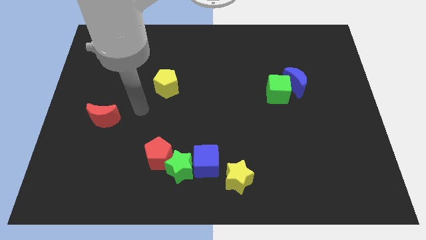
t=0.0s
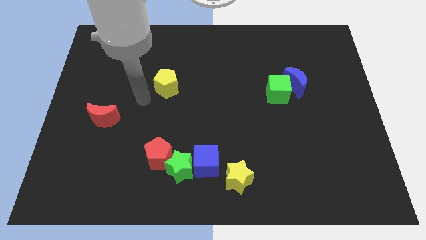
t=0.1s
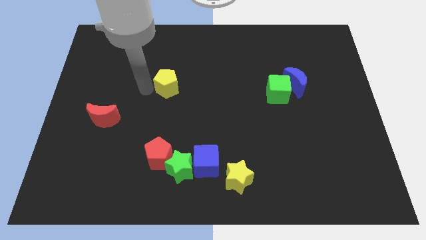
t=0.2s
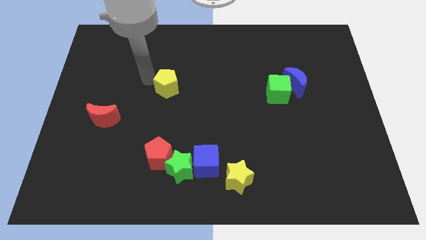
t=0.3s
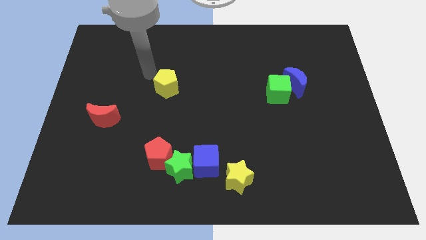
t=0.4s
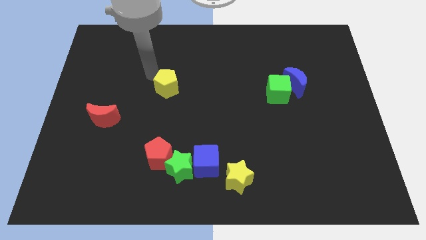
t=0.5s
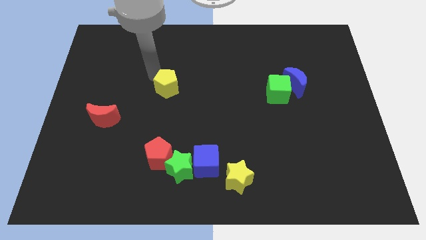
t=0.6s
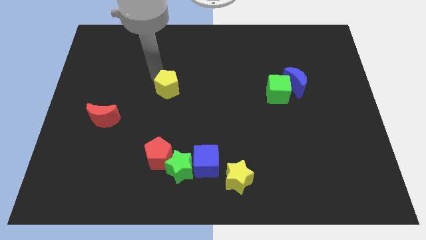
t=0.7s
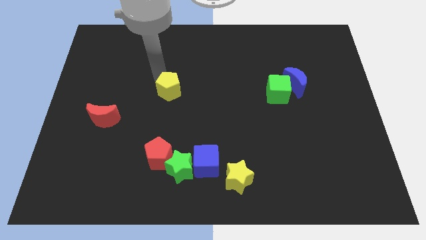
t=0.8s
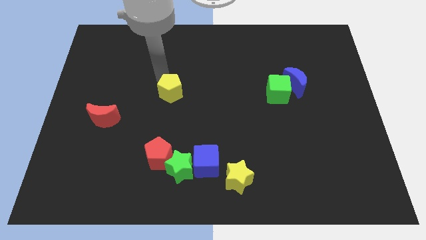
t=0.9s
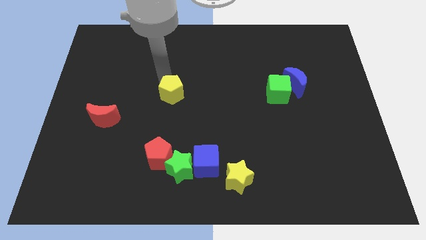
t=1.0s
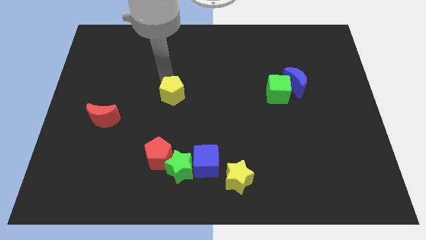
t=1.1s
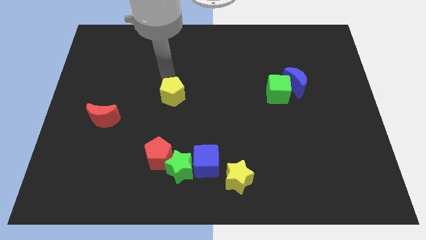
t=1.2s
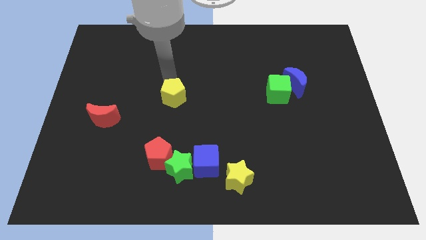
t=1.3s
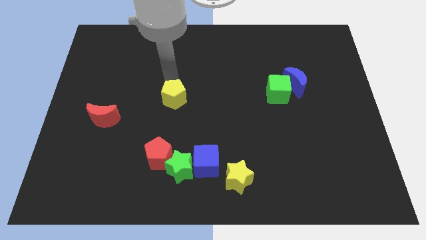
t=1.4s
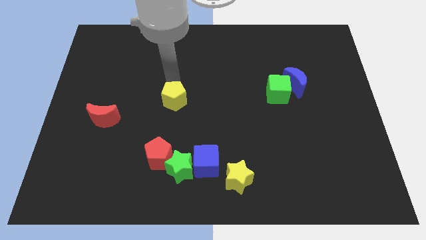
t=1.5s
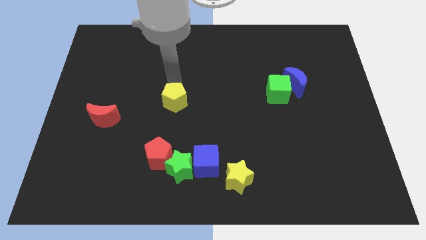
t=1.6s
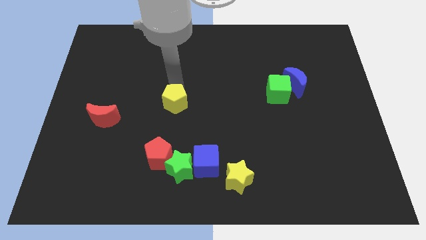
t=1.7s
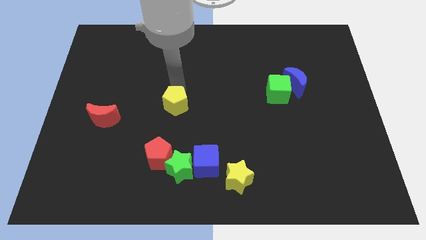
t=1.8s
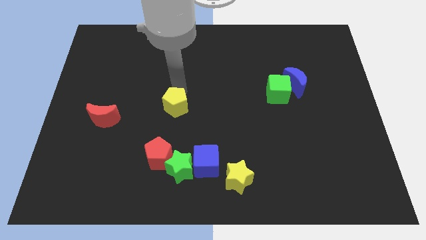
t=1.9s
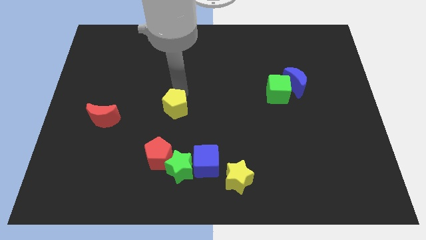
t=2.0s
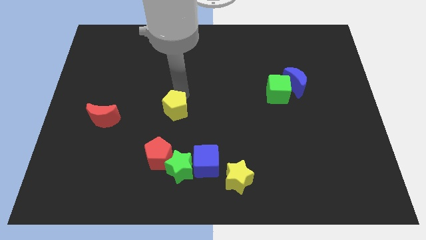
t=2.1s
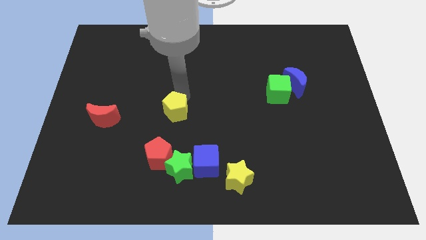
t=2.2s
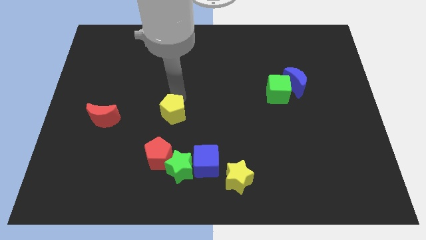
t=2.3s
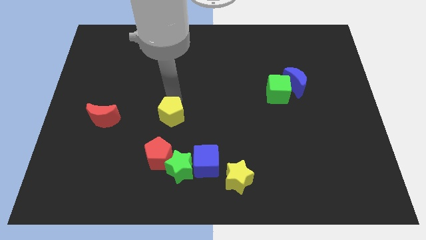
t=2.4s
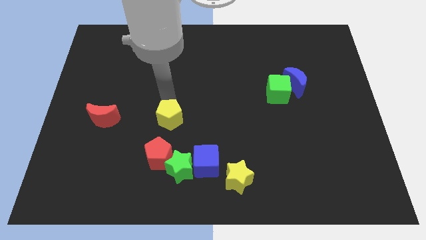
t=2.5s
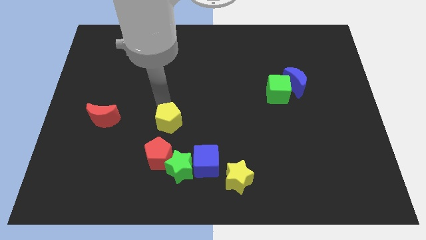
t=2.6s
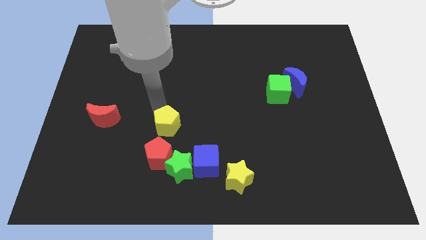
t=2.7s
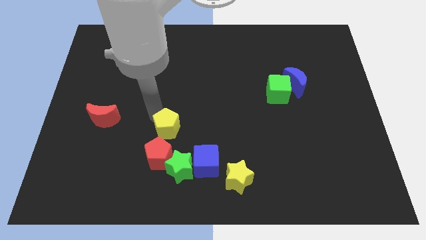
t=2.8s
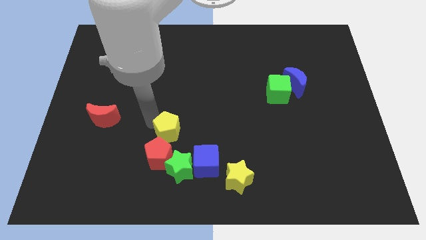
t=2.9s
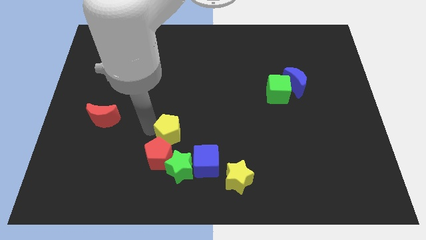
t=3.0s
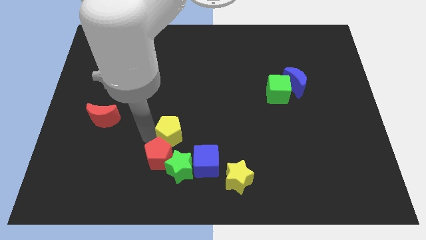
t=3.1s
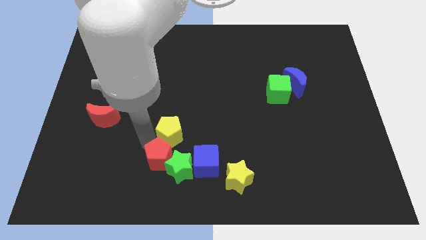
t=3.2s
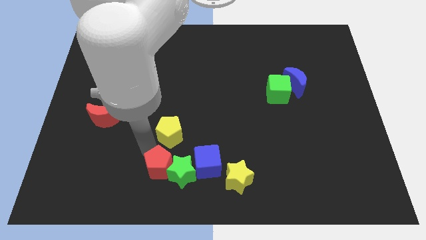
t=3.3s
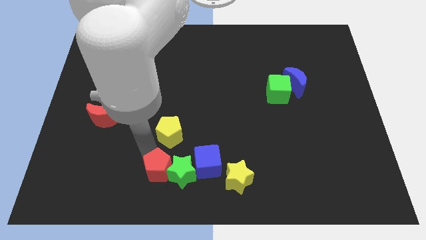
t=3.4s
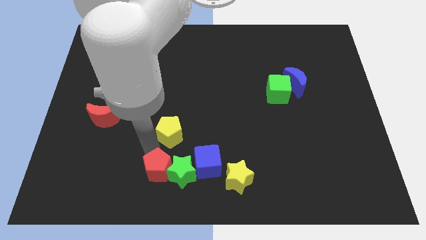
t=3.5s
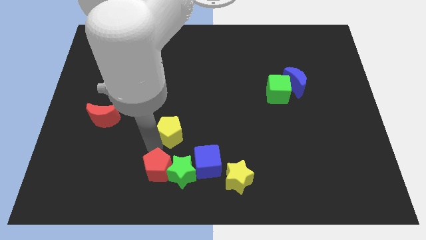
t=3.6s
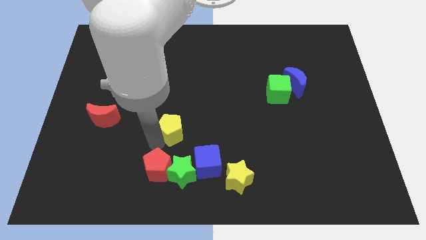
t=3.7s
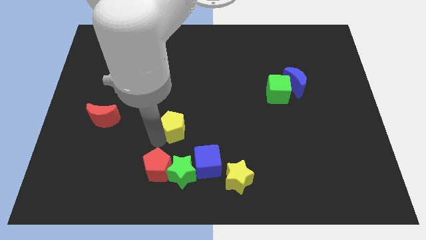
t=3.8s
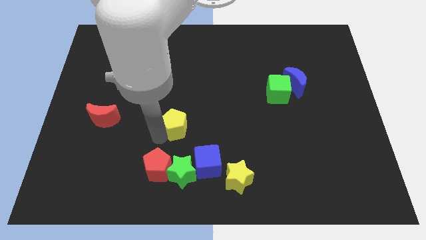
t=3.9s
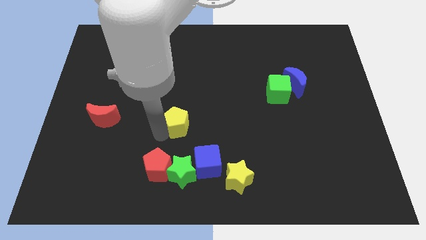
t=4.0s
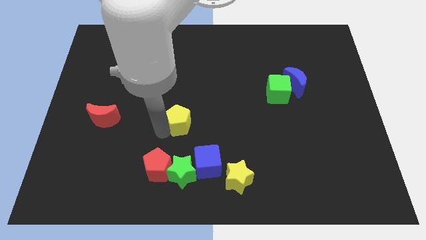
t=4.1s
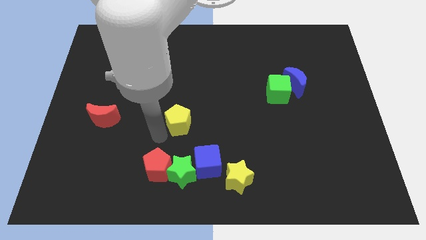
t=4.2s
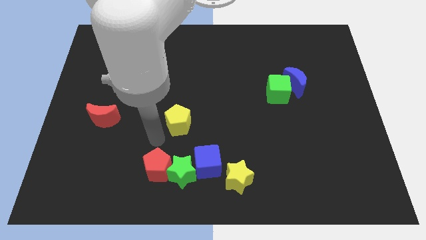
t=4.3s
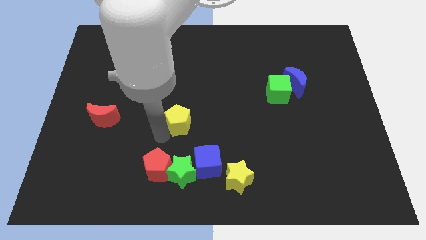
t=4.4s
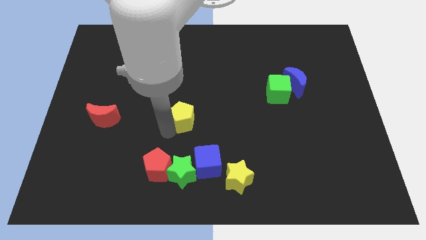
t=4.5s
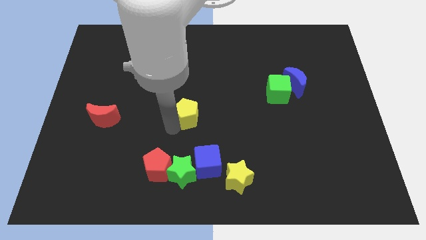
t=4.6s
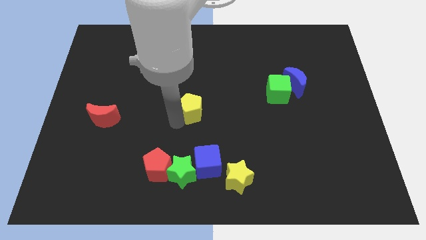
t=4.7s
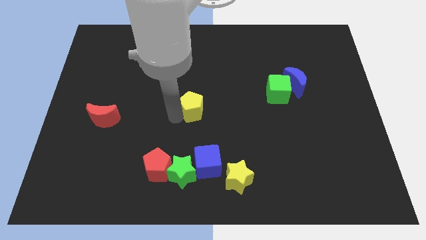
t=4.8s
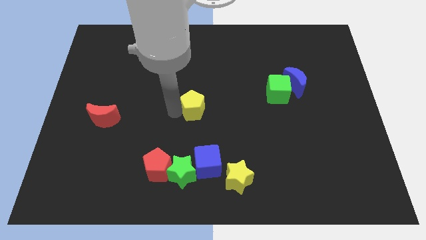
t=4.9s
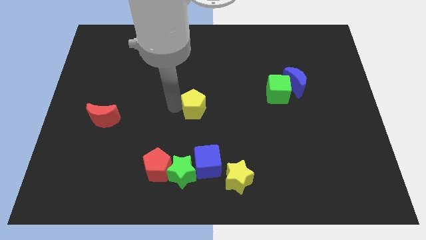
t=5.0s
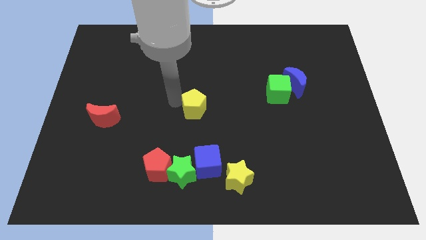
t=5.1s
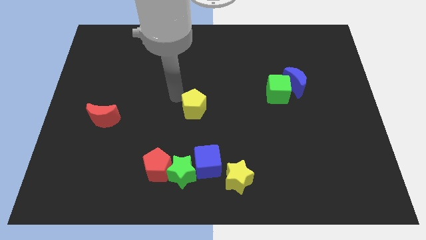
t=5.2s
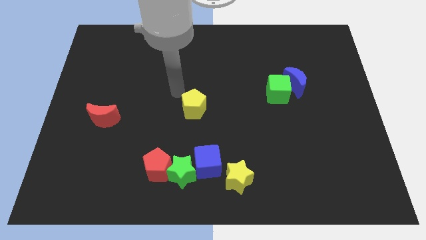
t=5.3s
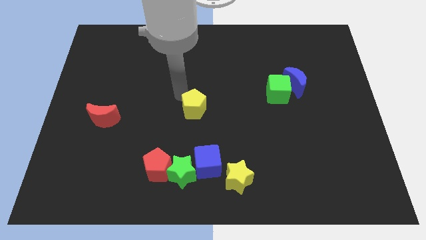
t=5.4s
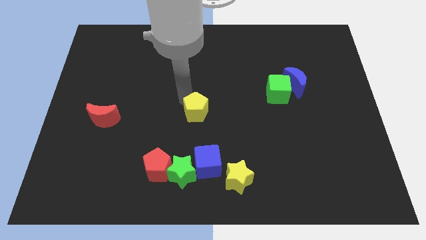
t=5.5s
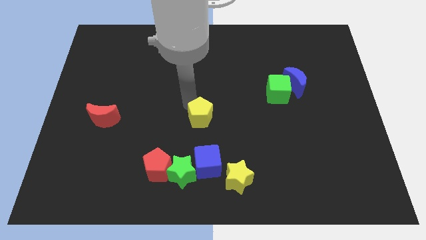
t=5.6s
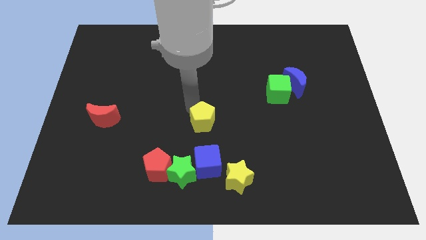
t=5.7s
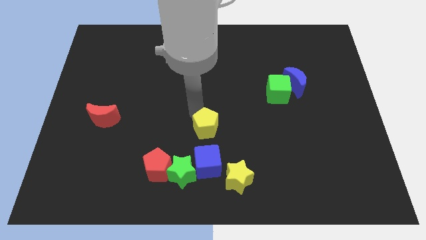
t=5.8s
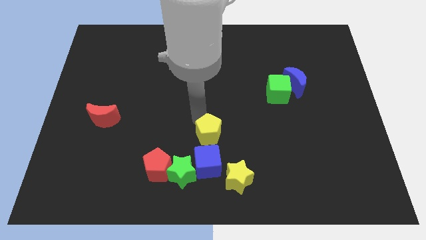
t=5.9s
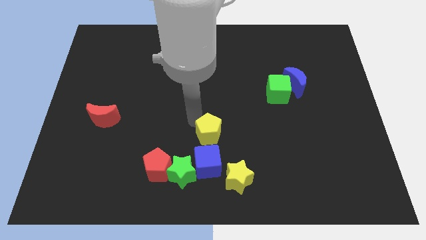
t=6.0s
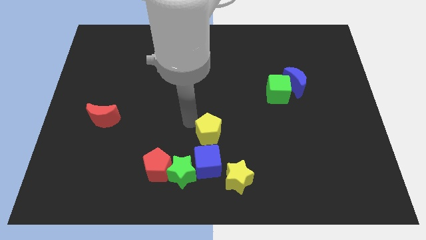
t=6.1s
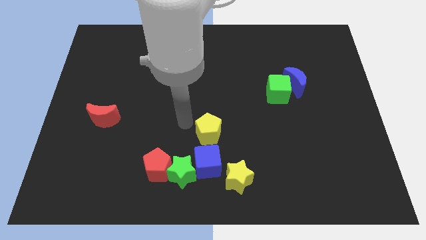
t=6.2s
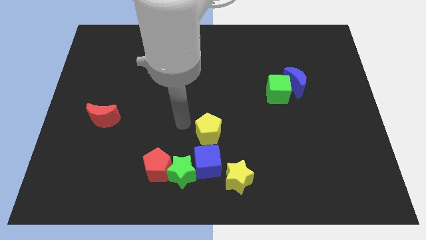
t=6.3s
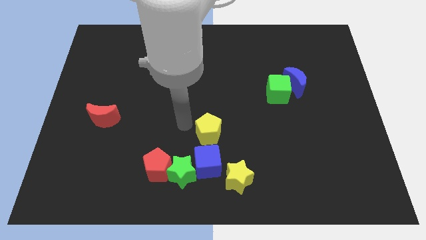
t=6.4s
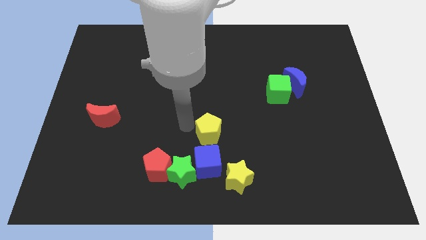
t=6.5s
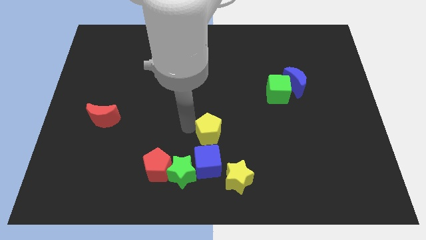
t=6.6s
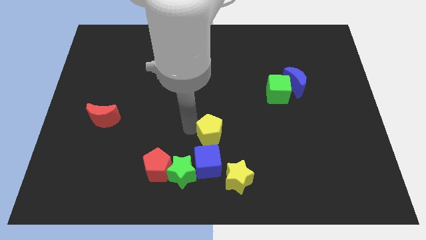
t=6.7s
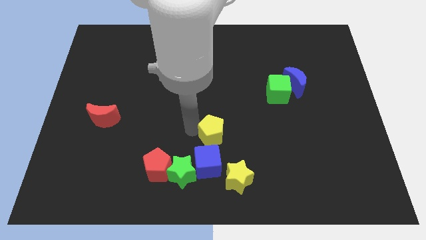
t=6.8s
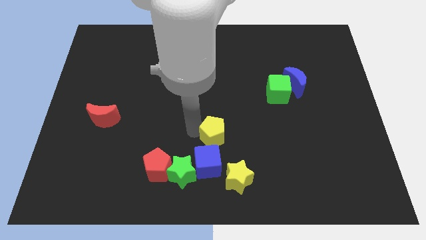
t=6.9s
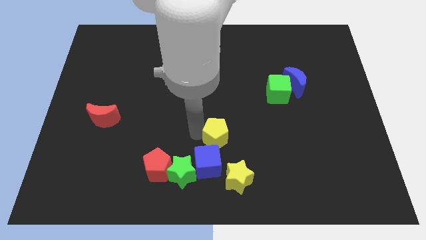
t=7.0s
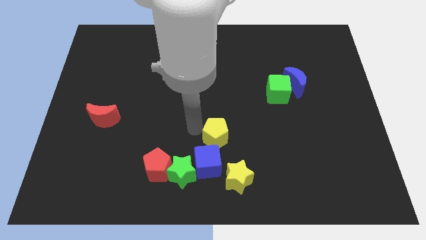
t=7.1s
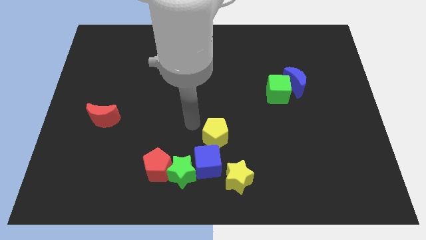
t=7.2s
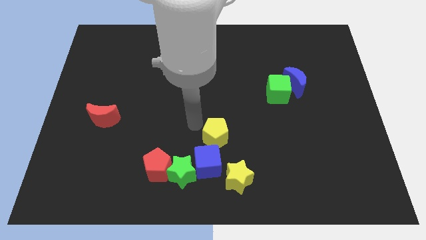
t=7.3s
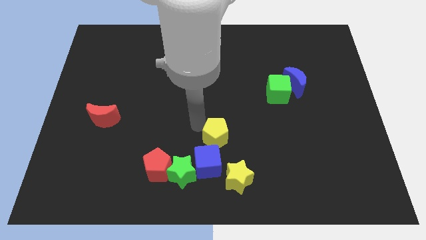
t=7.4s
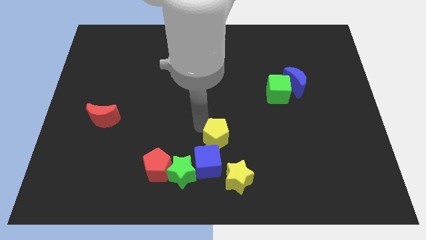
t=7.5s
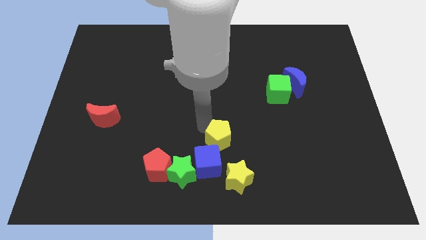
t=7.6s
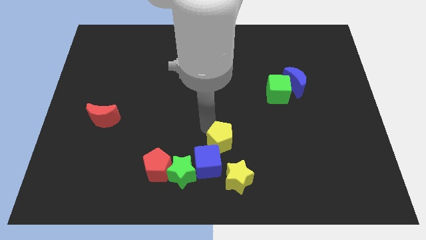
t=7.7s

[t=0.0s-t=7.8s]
push the yellow pentagon down and right diagonally

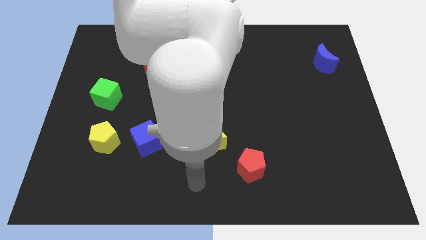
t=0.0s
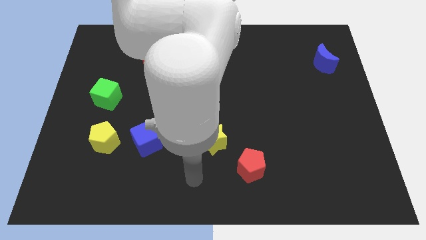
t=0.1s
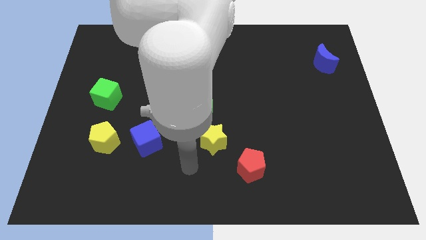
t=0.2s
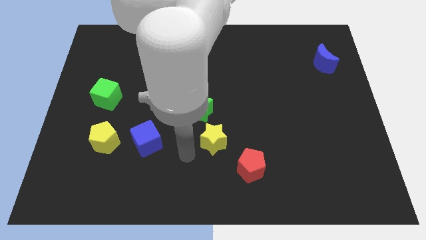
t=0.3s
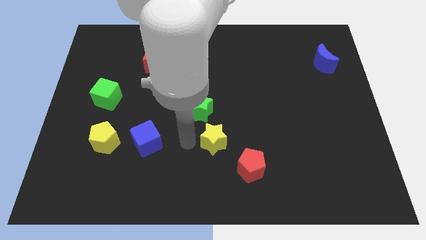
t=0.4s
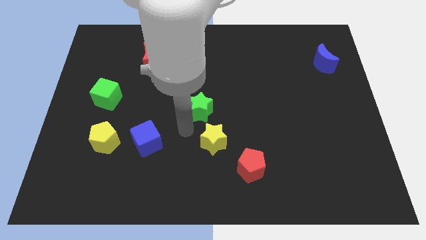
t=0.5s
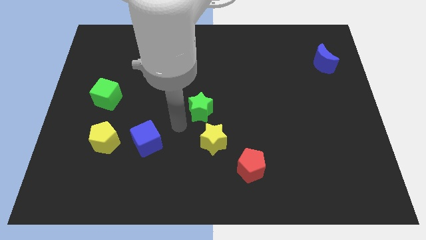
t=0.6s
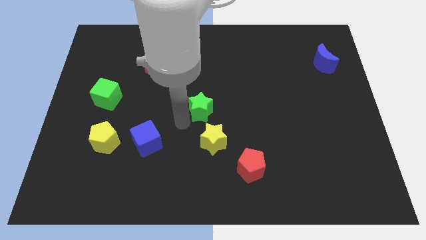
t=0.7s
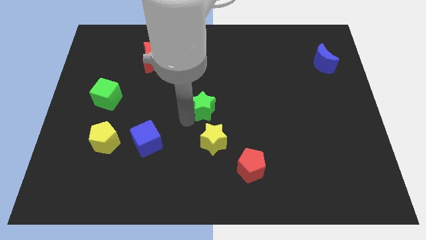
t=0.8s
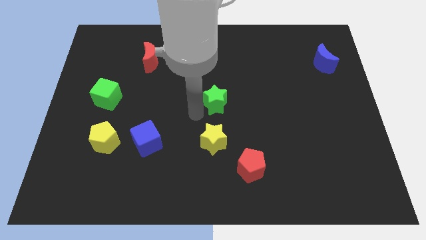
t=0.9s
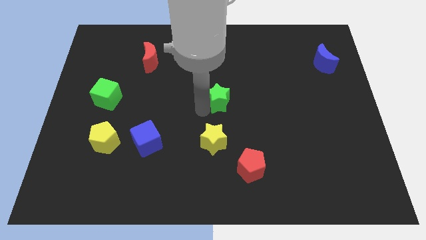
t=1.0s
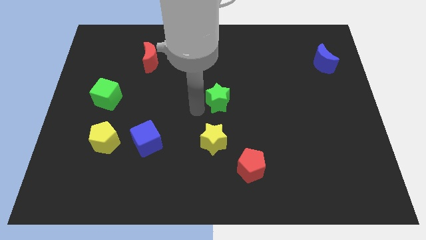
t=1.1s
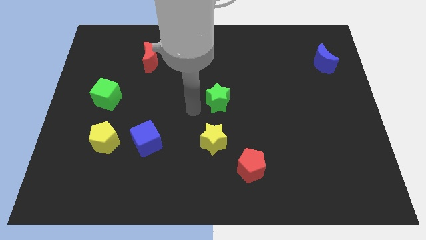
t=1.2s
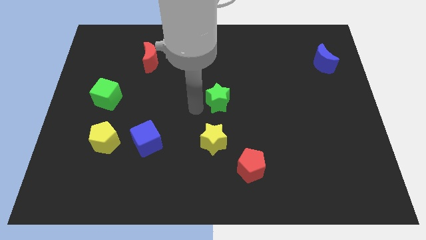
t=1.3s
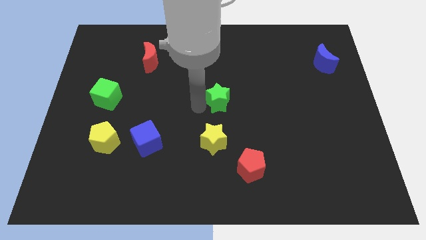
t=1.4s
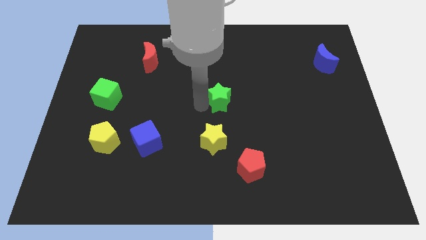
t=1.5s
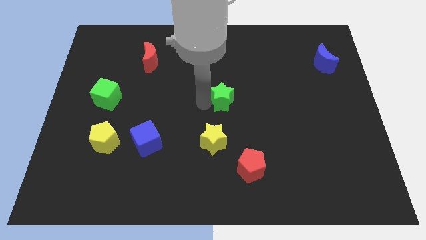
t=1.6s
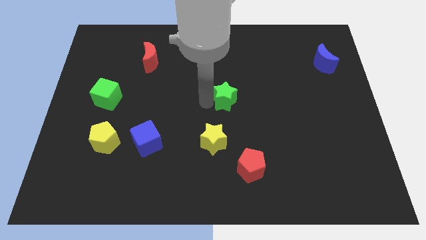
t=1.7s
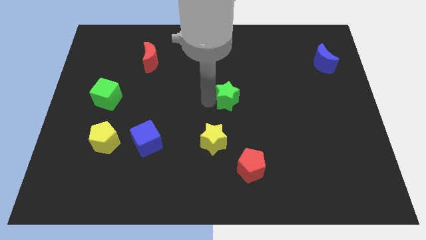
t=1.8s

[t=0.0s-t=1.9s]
slide the green star diagonally up and right a bit
